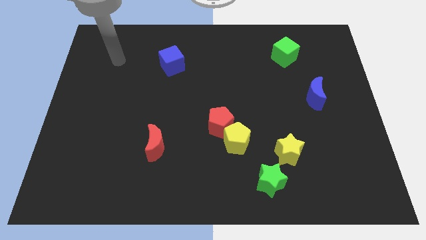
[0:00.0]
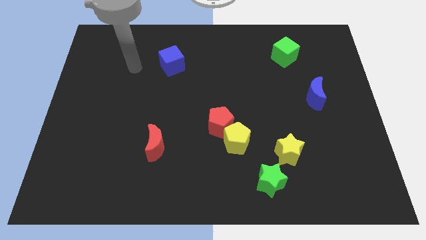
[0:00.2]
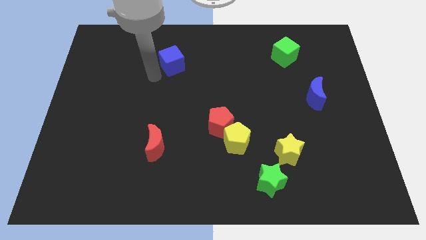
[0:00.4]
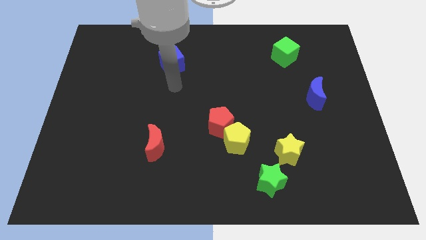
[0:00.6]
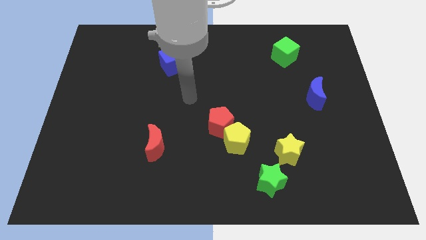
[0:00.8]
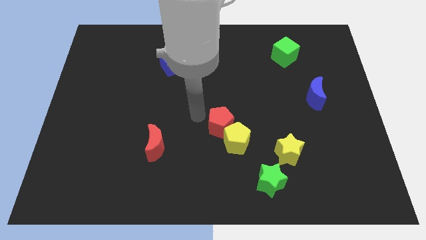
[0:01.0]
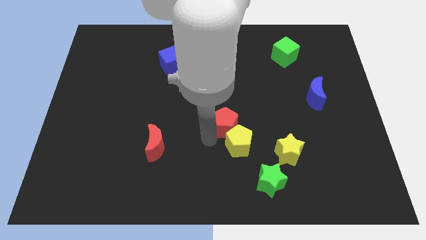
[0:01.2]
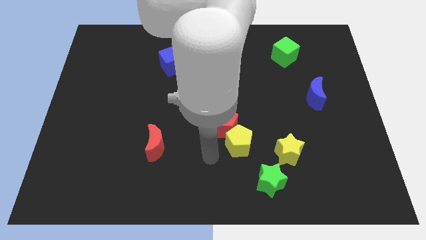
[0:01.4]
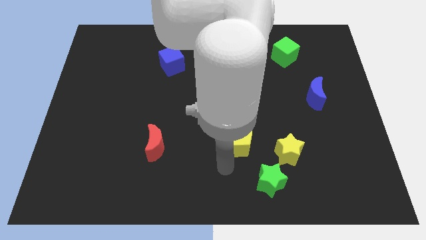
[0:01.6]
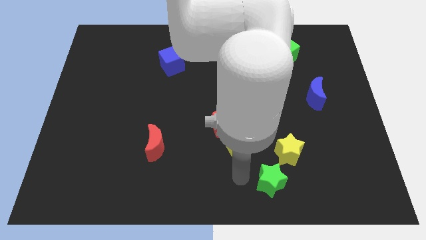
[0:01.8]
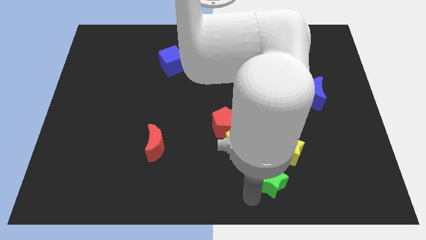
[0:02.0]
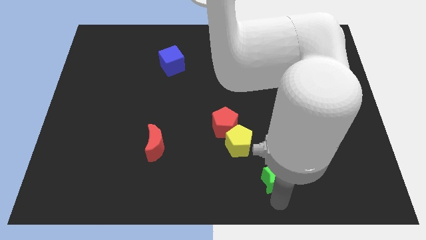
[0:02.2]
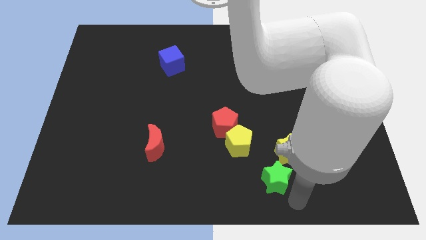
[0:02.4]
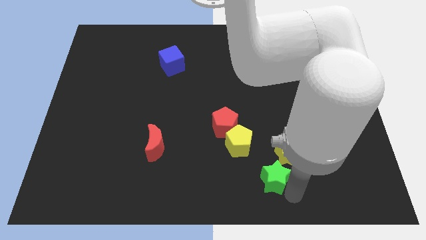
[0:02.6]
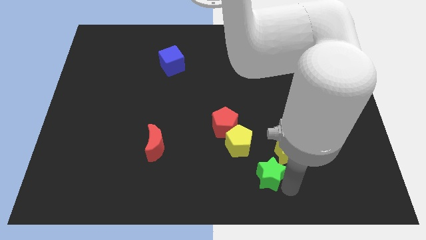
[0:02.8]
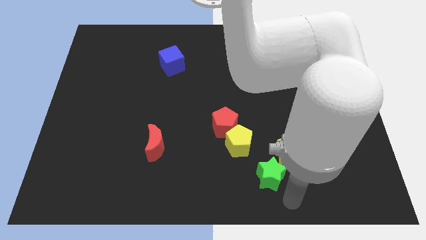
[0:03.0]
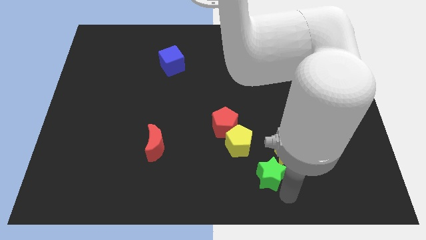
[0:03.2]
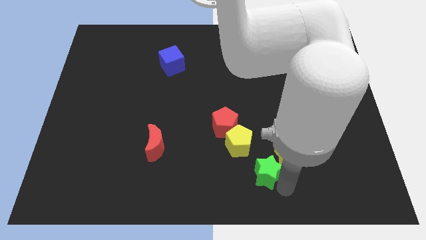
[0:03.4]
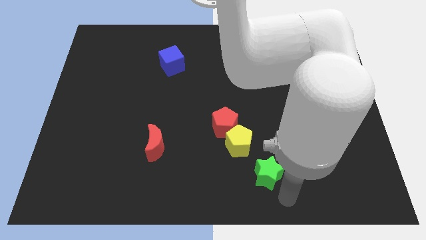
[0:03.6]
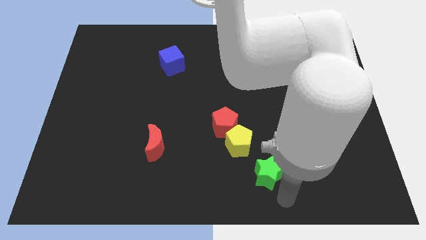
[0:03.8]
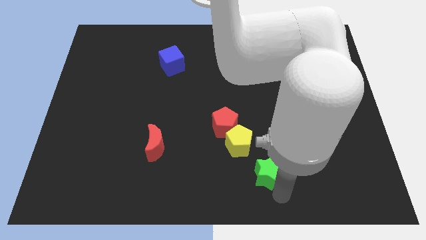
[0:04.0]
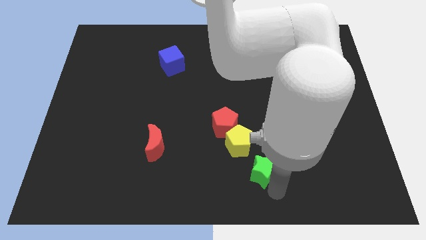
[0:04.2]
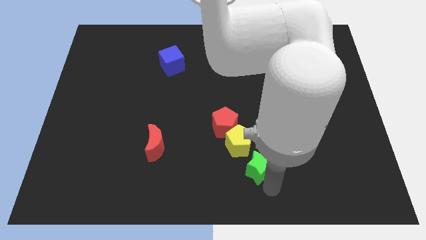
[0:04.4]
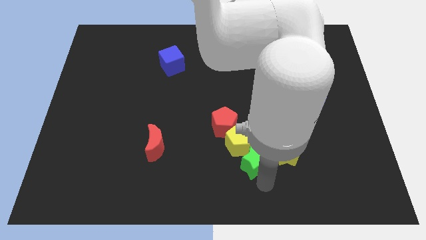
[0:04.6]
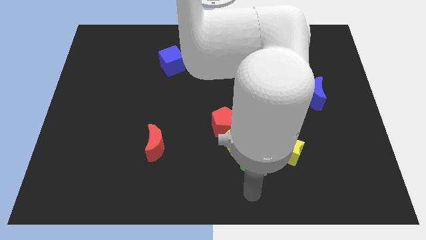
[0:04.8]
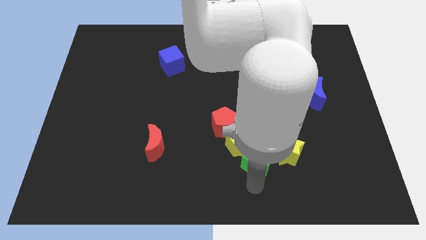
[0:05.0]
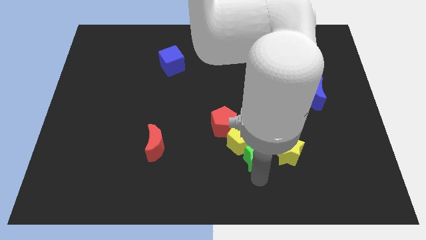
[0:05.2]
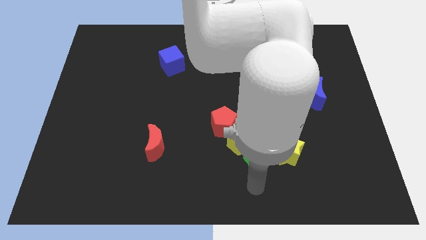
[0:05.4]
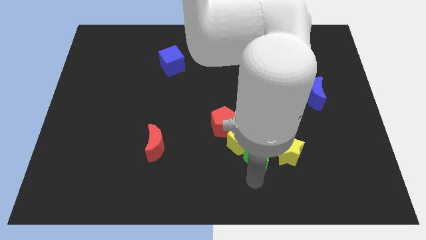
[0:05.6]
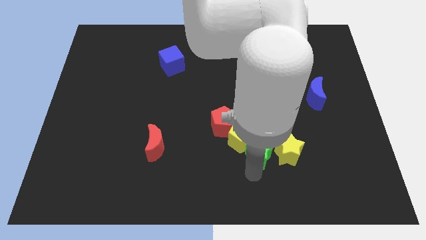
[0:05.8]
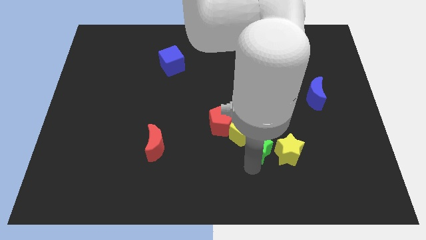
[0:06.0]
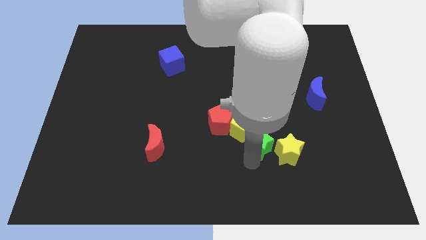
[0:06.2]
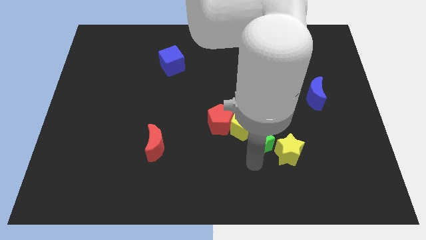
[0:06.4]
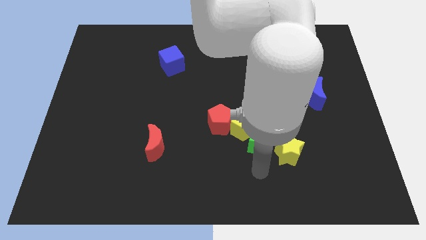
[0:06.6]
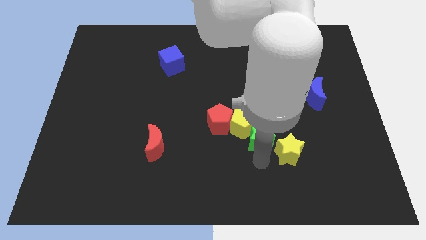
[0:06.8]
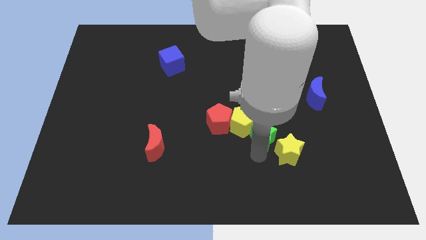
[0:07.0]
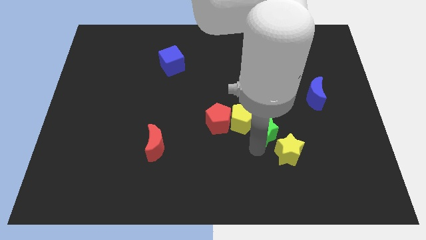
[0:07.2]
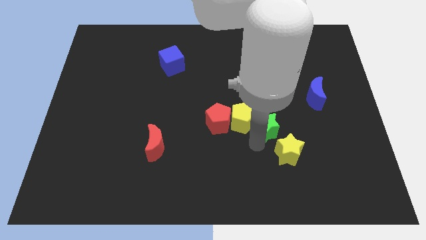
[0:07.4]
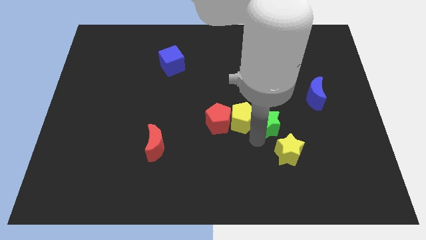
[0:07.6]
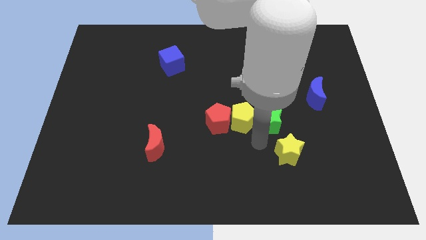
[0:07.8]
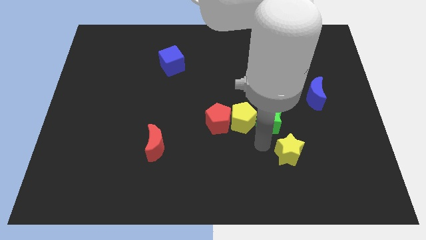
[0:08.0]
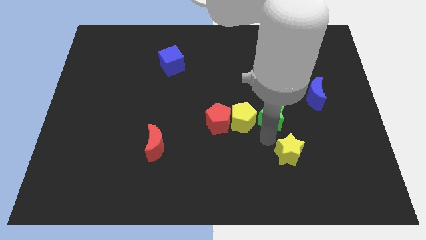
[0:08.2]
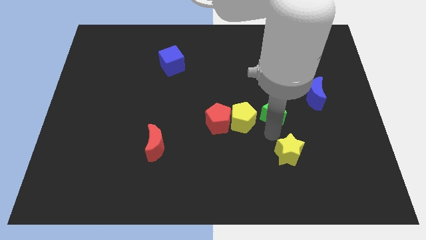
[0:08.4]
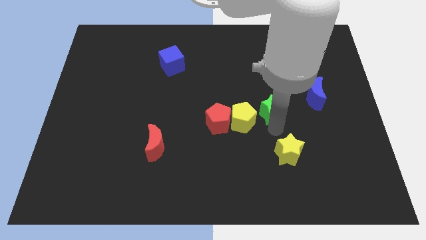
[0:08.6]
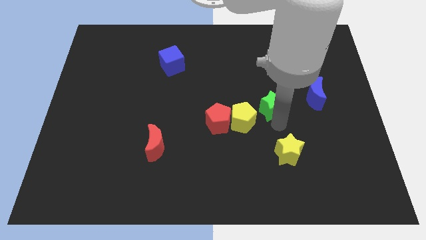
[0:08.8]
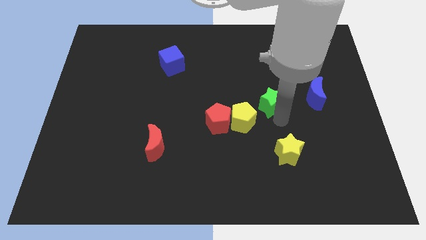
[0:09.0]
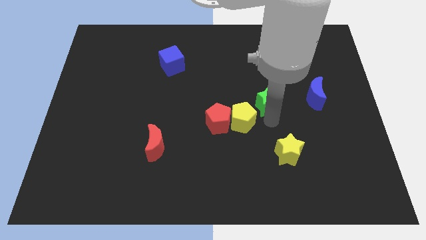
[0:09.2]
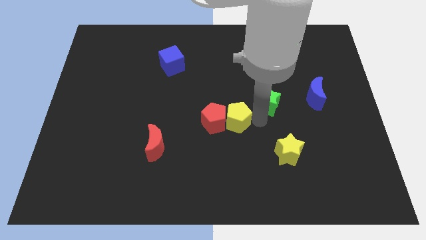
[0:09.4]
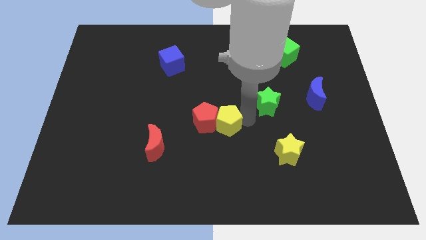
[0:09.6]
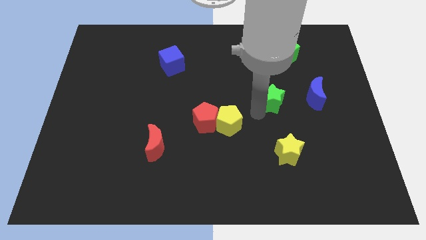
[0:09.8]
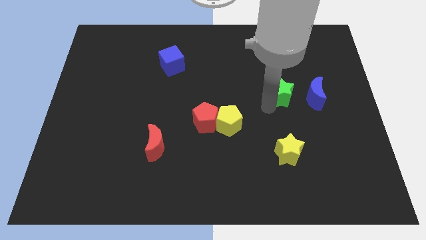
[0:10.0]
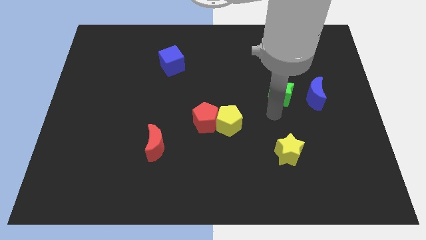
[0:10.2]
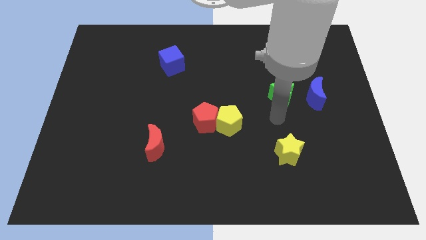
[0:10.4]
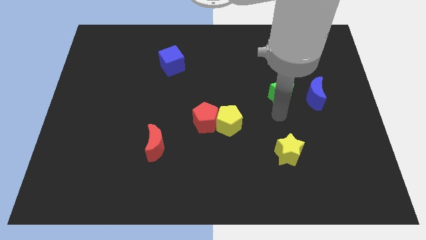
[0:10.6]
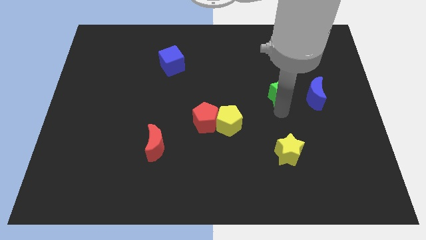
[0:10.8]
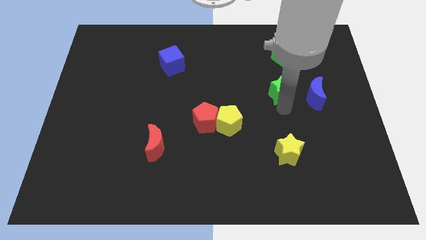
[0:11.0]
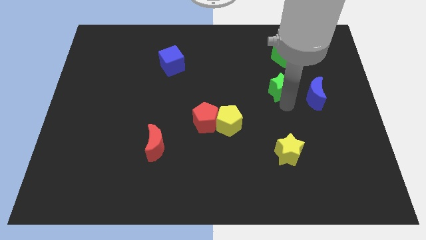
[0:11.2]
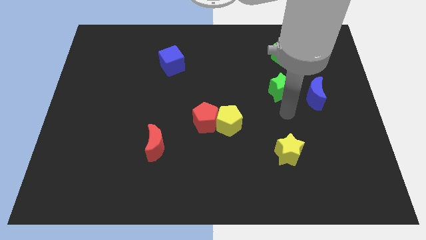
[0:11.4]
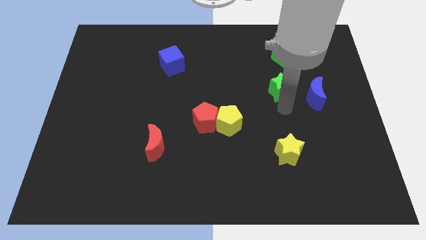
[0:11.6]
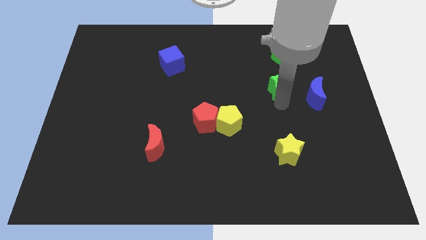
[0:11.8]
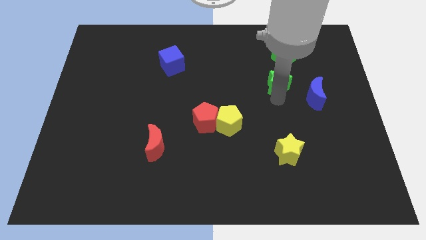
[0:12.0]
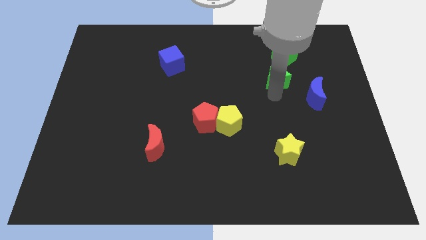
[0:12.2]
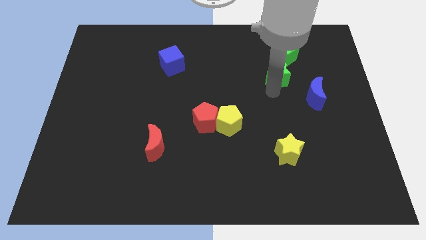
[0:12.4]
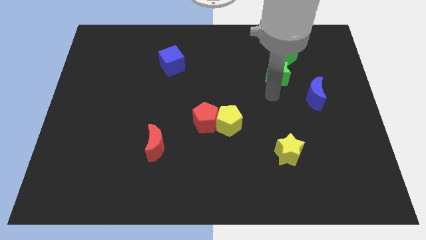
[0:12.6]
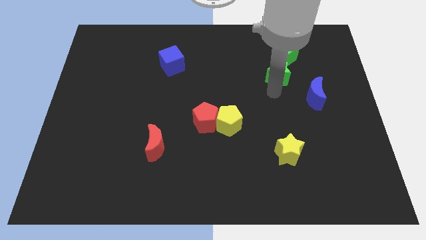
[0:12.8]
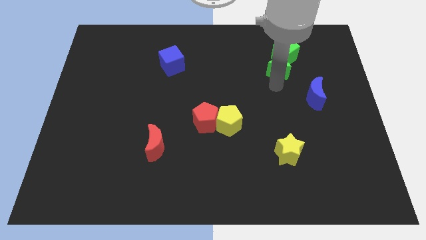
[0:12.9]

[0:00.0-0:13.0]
push the green star towards the green cube

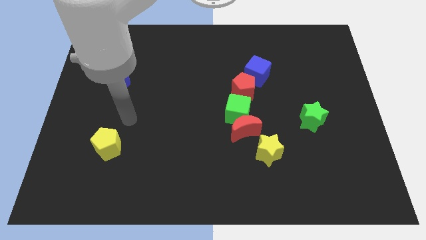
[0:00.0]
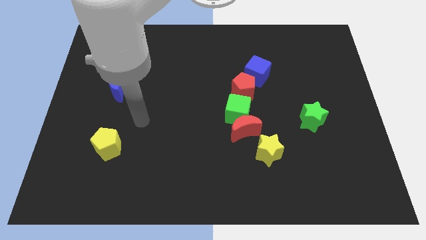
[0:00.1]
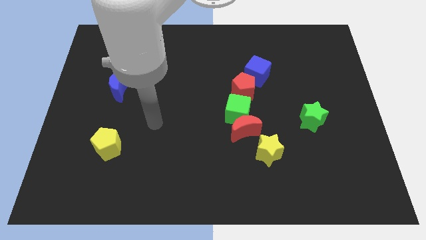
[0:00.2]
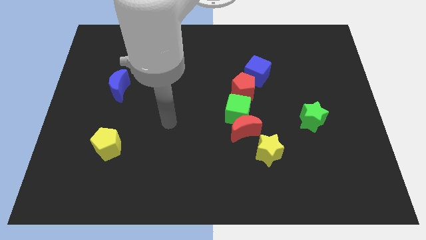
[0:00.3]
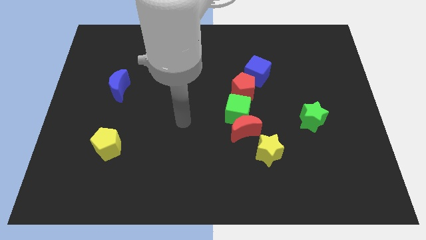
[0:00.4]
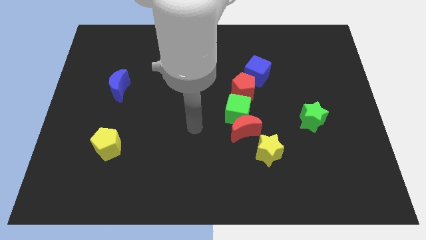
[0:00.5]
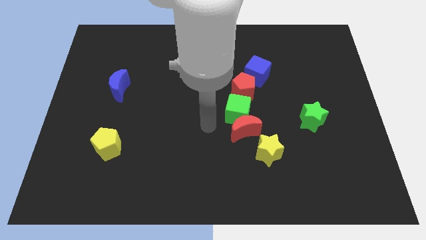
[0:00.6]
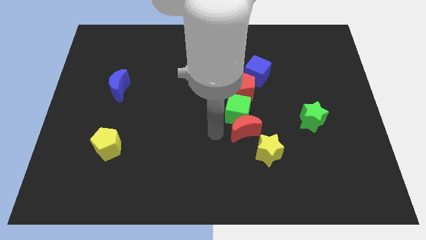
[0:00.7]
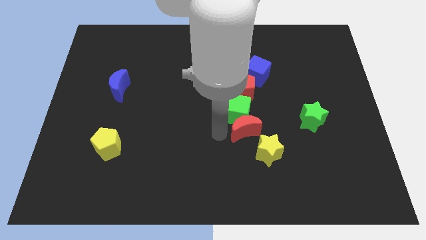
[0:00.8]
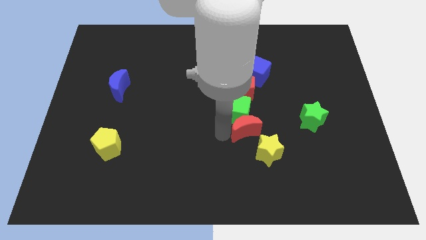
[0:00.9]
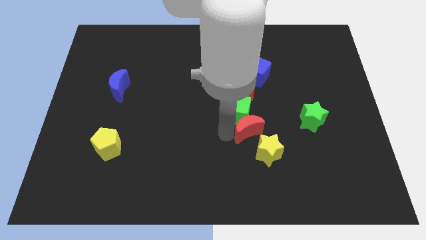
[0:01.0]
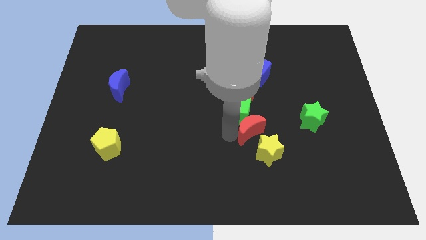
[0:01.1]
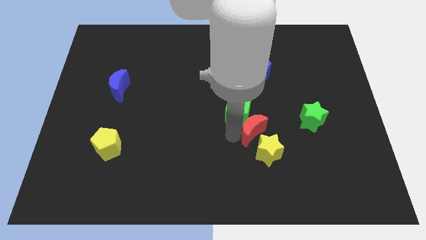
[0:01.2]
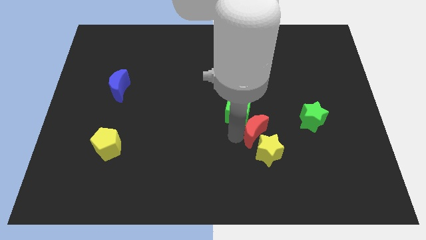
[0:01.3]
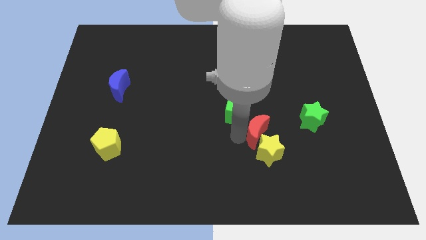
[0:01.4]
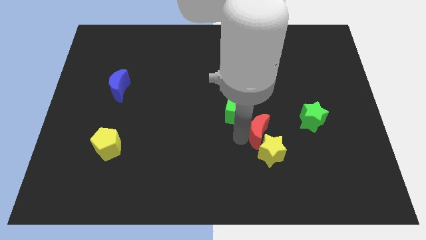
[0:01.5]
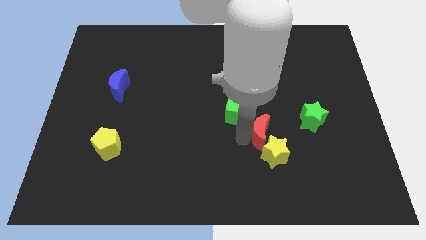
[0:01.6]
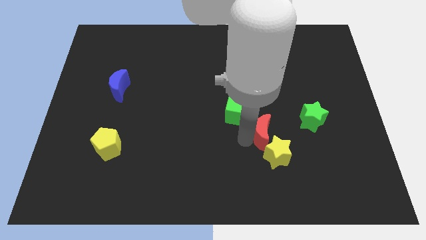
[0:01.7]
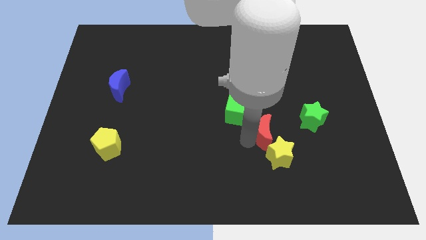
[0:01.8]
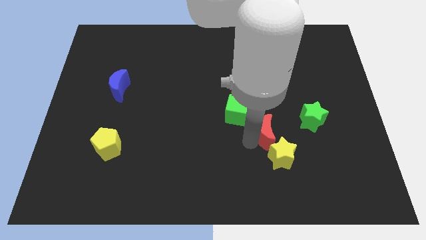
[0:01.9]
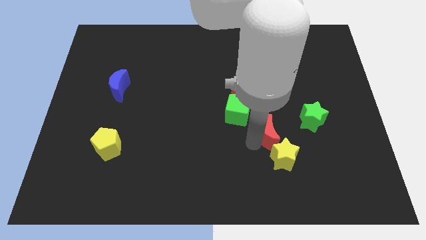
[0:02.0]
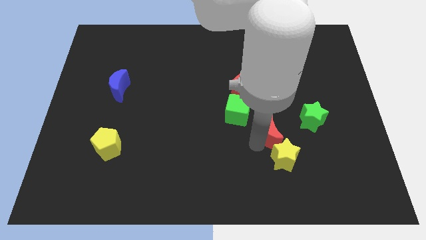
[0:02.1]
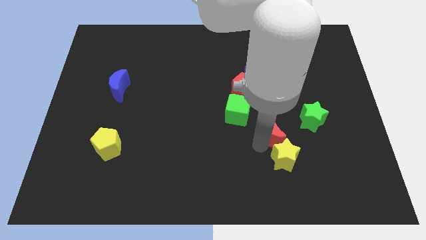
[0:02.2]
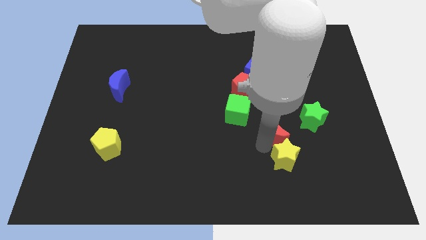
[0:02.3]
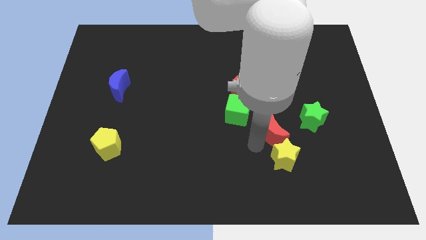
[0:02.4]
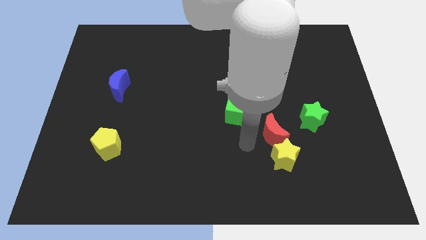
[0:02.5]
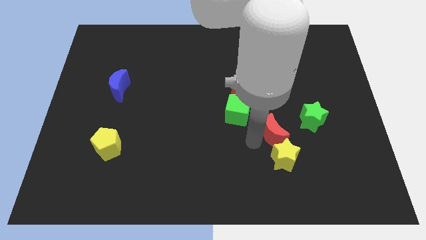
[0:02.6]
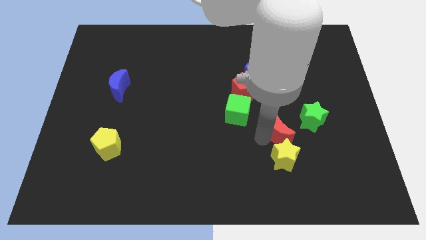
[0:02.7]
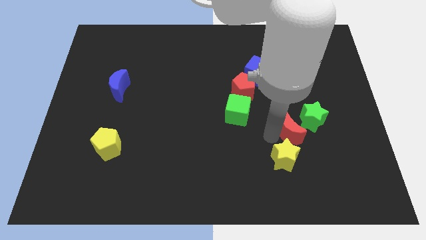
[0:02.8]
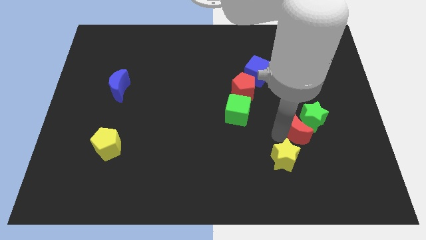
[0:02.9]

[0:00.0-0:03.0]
slide the red moon towards the green star
